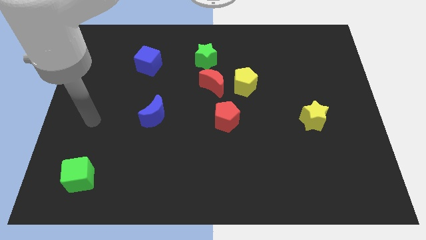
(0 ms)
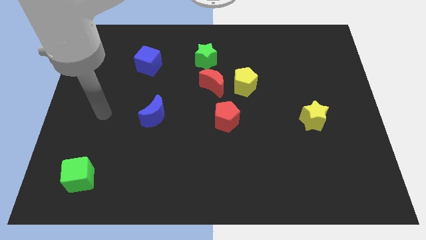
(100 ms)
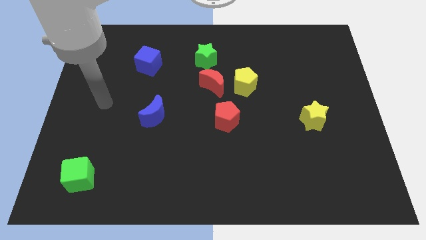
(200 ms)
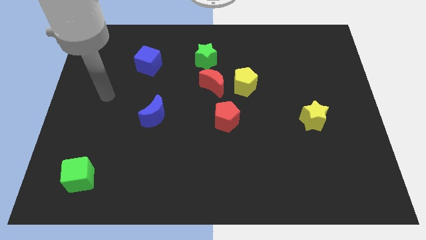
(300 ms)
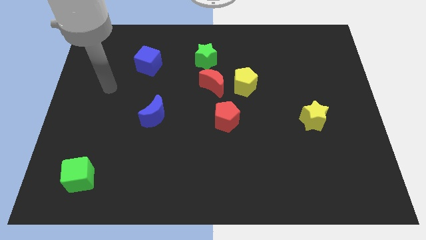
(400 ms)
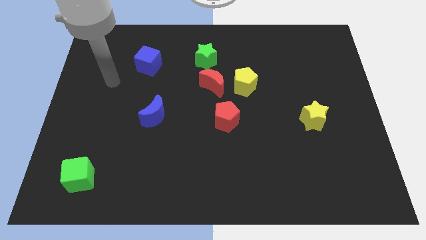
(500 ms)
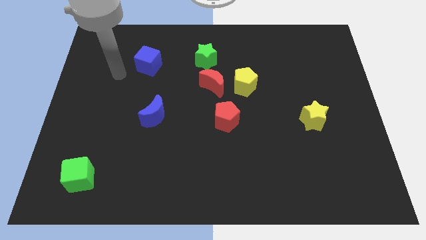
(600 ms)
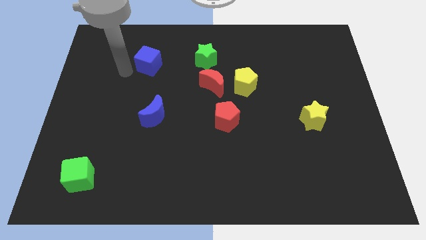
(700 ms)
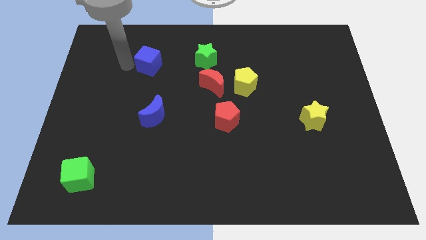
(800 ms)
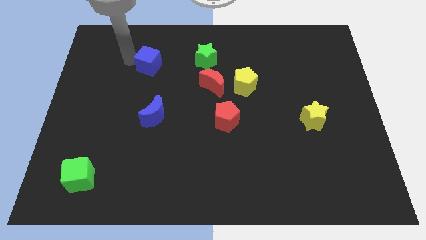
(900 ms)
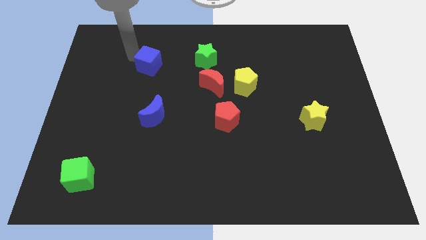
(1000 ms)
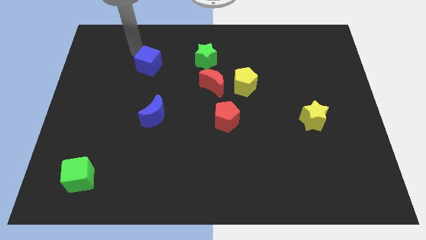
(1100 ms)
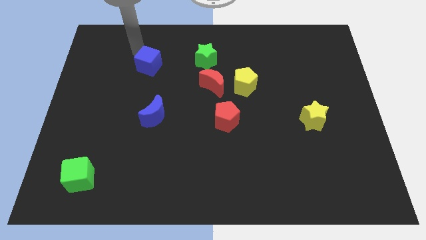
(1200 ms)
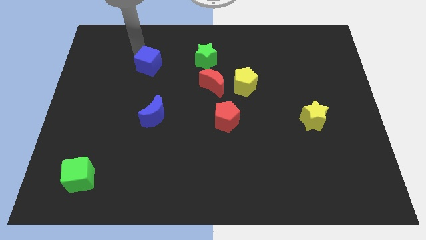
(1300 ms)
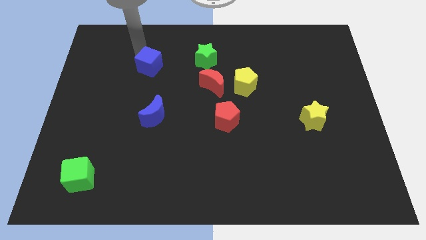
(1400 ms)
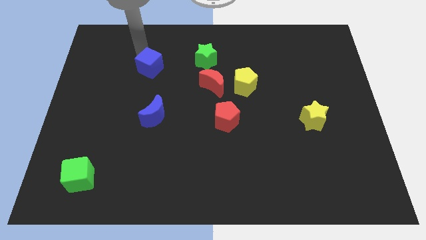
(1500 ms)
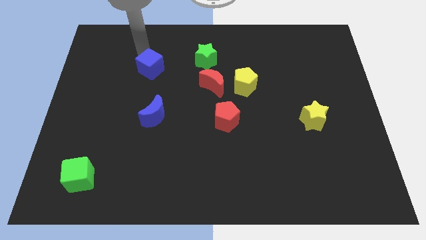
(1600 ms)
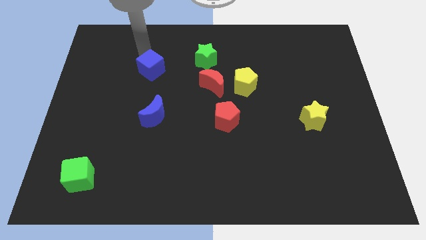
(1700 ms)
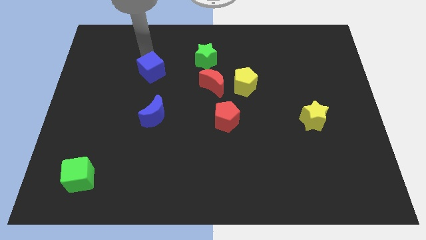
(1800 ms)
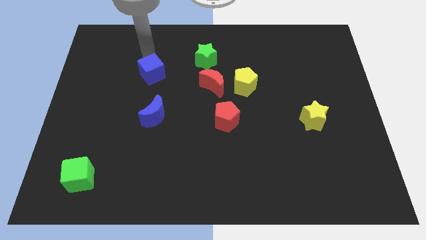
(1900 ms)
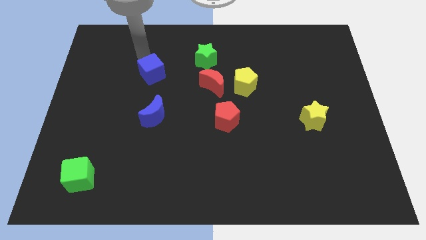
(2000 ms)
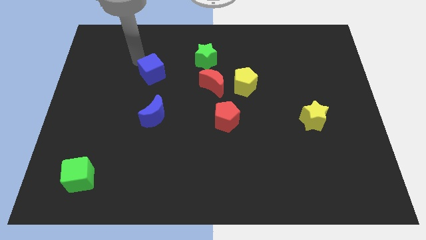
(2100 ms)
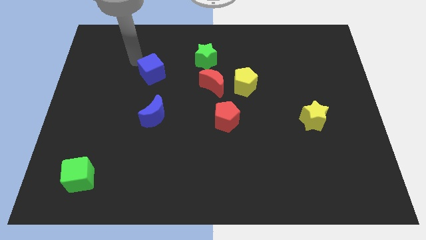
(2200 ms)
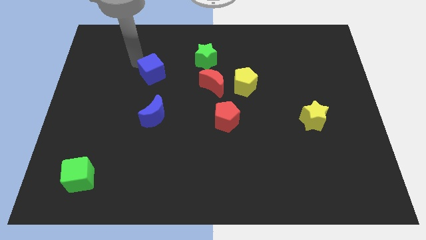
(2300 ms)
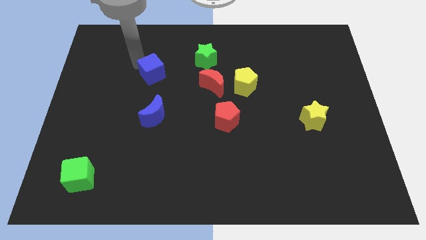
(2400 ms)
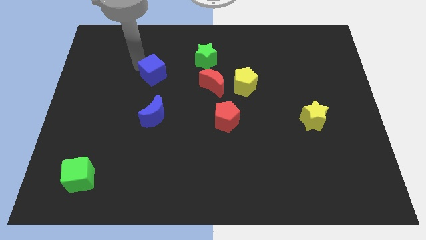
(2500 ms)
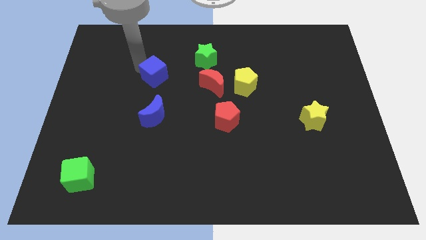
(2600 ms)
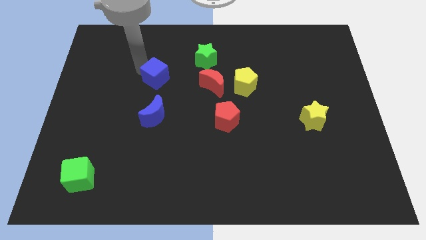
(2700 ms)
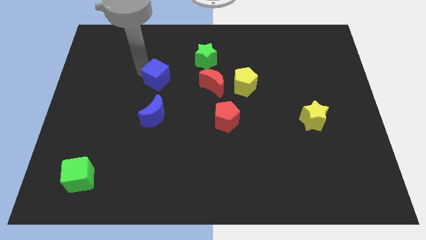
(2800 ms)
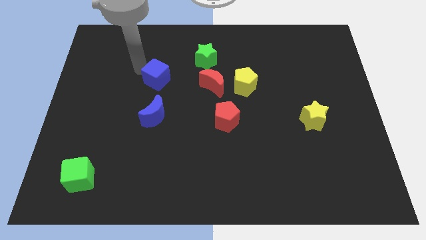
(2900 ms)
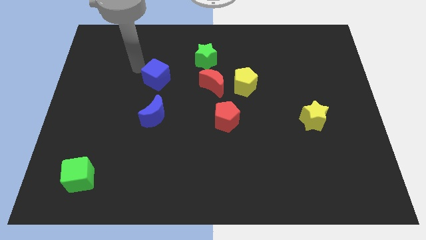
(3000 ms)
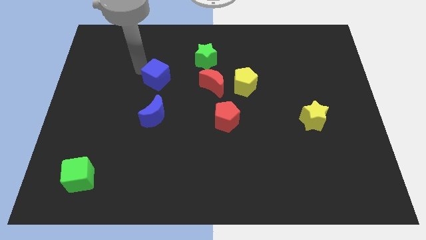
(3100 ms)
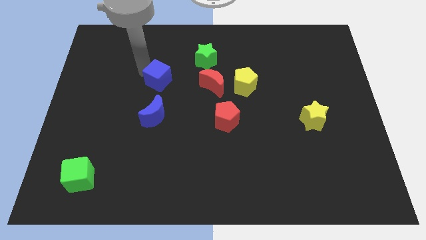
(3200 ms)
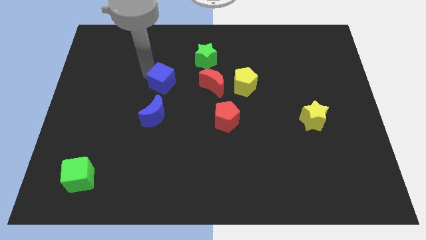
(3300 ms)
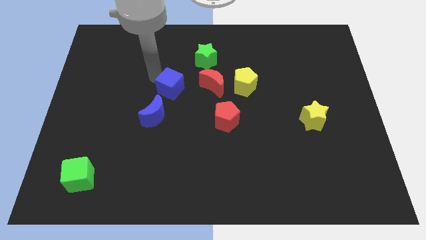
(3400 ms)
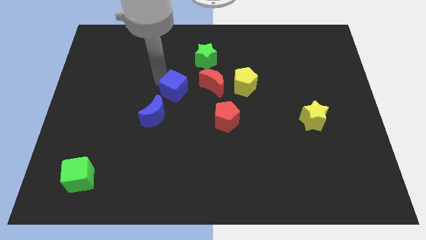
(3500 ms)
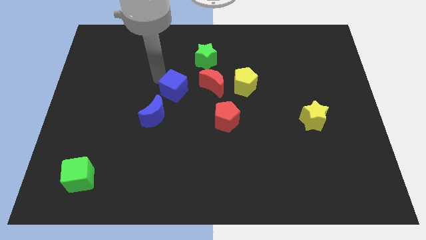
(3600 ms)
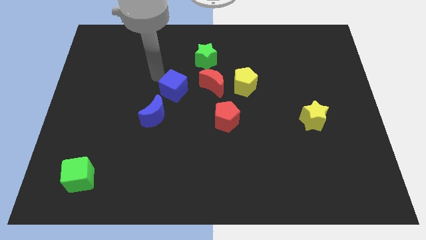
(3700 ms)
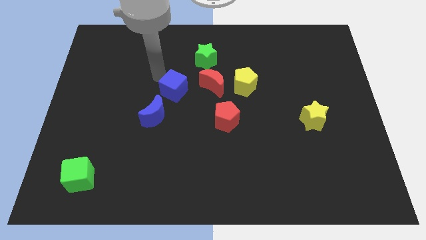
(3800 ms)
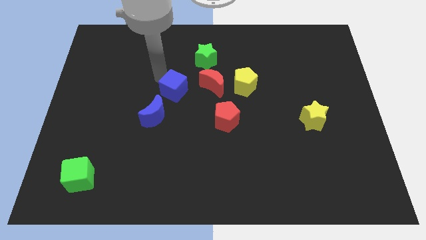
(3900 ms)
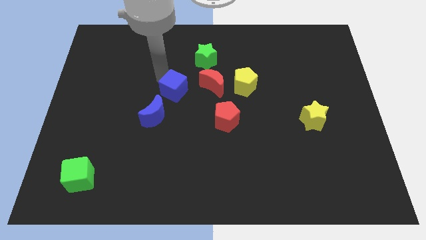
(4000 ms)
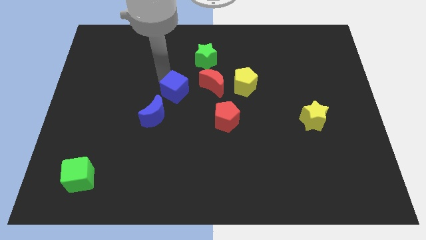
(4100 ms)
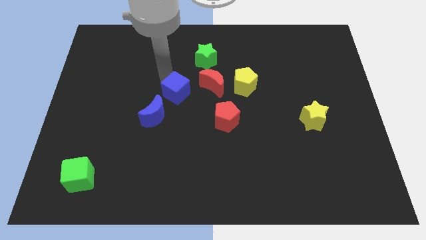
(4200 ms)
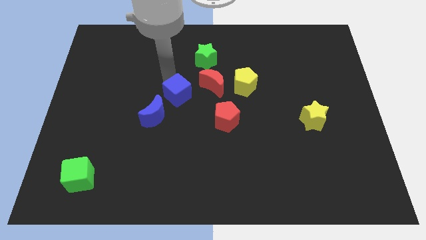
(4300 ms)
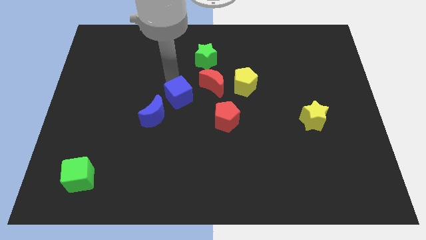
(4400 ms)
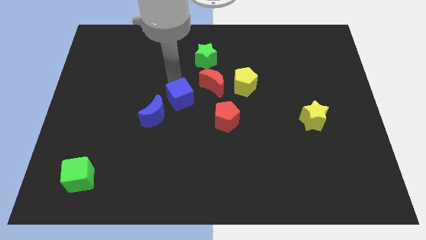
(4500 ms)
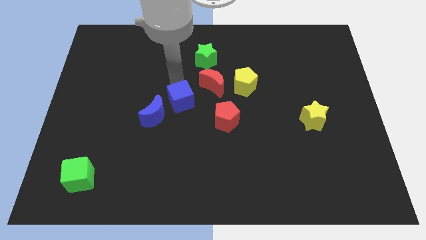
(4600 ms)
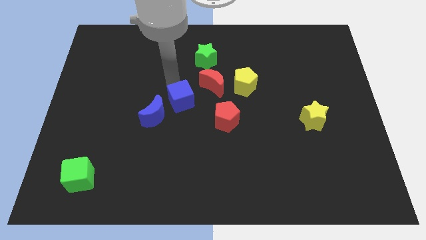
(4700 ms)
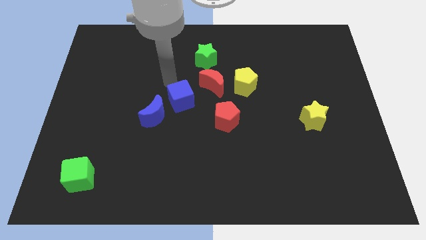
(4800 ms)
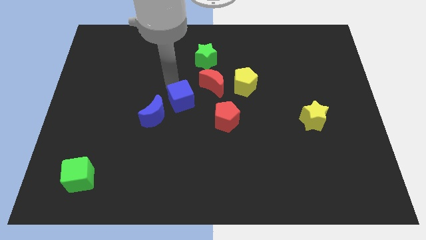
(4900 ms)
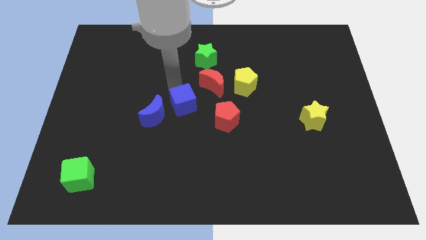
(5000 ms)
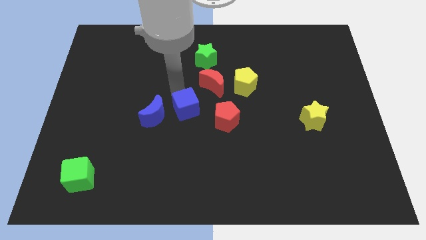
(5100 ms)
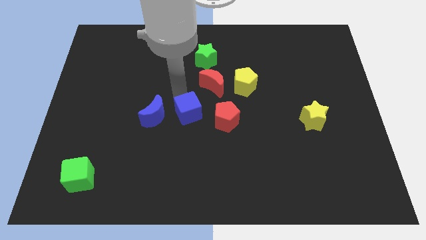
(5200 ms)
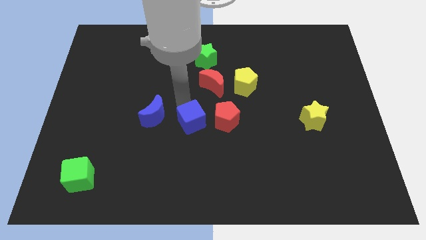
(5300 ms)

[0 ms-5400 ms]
slide the blue cube diagonally downwards and right

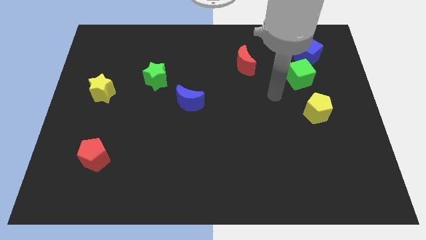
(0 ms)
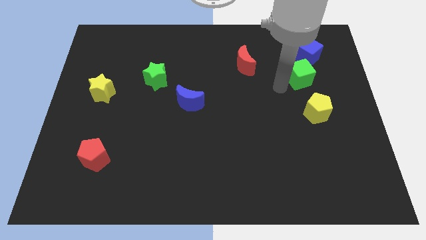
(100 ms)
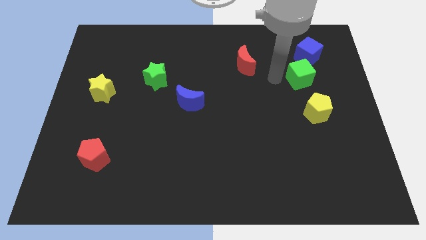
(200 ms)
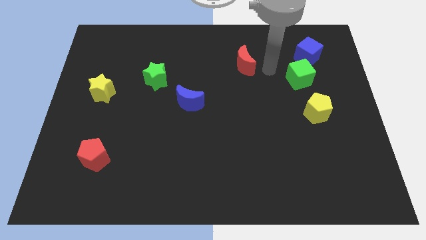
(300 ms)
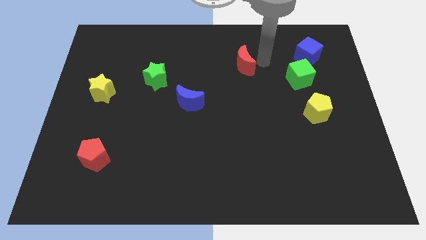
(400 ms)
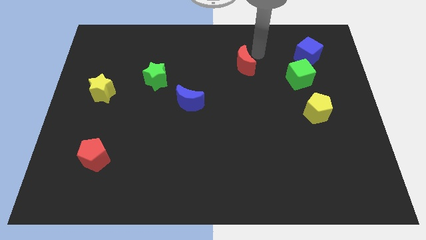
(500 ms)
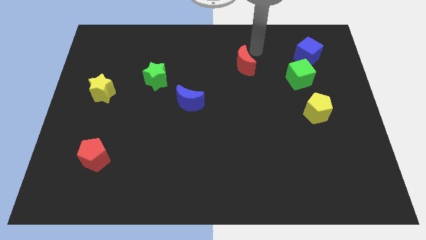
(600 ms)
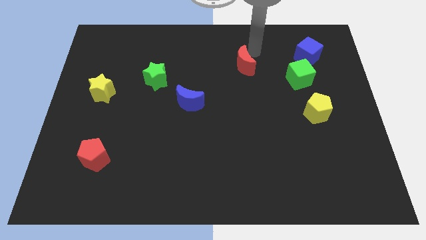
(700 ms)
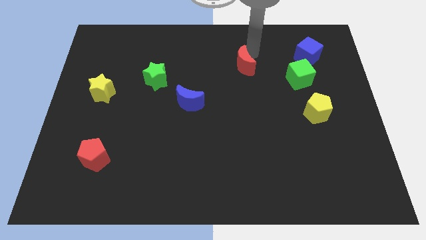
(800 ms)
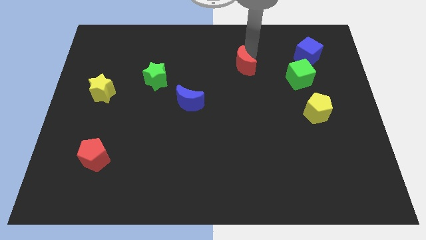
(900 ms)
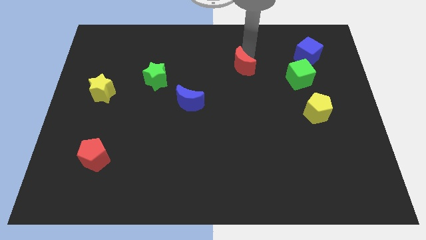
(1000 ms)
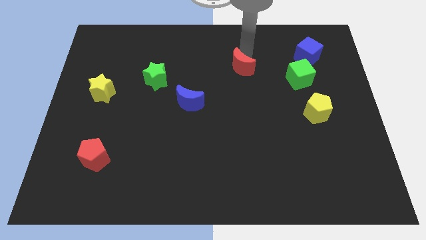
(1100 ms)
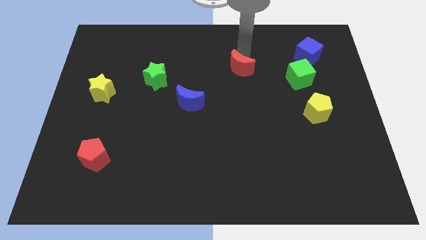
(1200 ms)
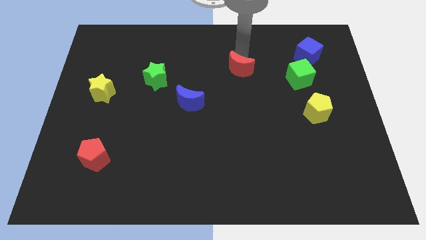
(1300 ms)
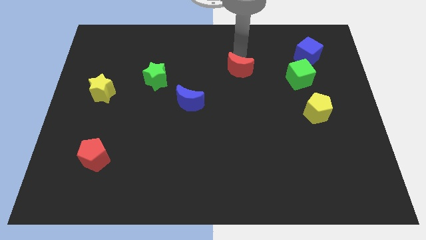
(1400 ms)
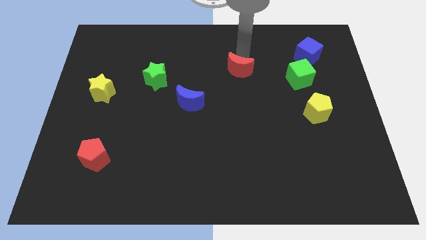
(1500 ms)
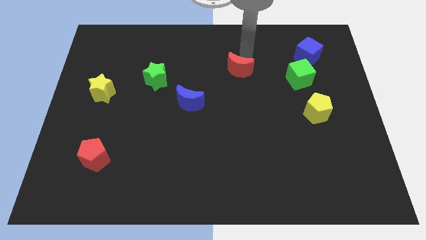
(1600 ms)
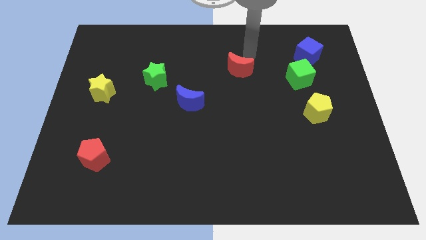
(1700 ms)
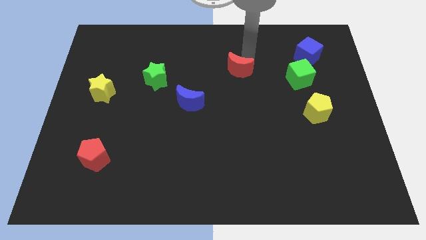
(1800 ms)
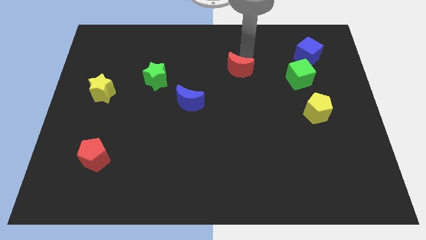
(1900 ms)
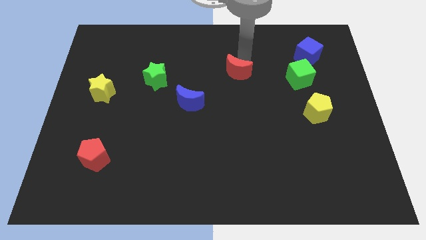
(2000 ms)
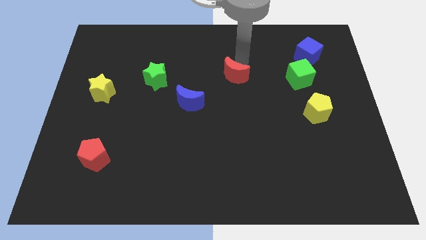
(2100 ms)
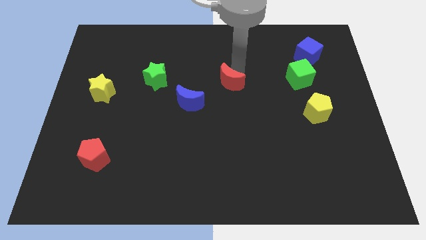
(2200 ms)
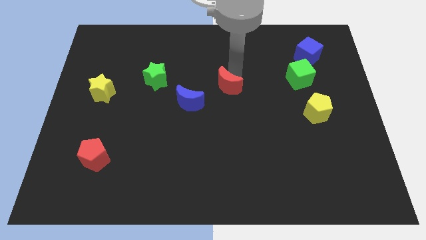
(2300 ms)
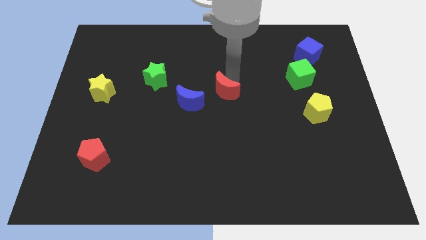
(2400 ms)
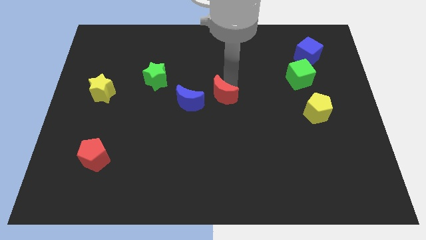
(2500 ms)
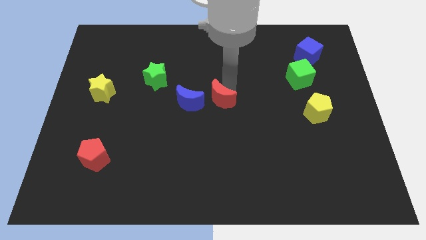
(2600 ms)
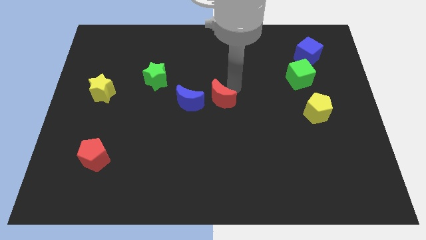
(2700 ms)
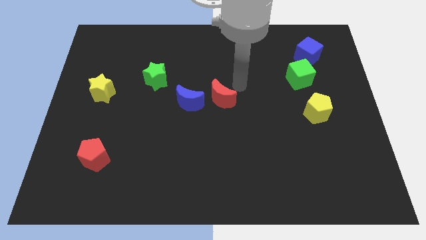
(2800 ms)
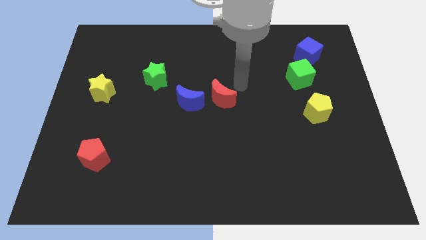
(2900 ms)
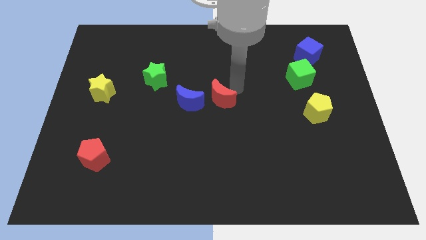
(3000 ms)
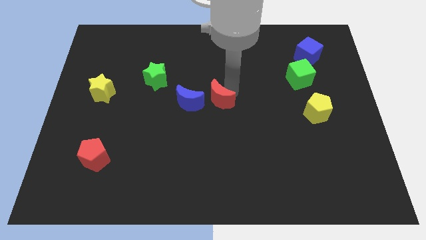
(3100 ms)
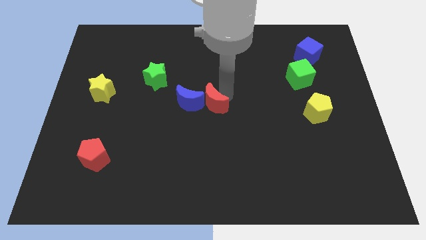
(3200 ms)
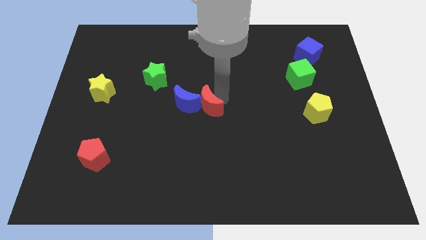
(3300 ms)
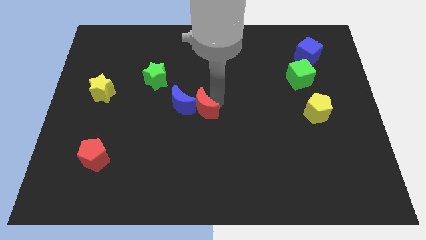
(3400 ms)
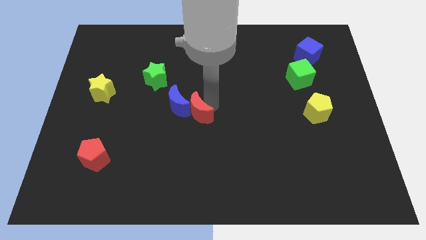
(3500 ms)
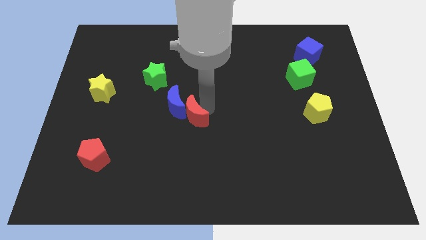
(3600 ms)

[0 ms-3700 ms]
slide the red moon downwards and then left
